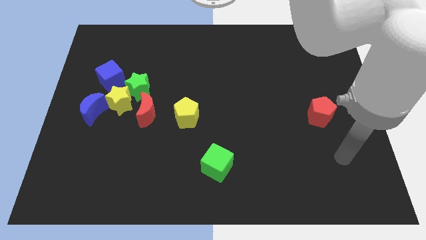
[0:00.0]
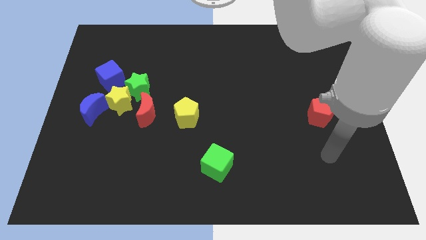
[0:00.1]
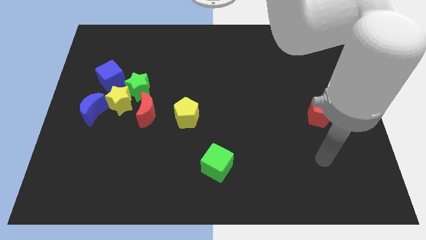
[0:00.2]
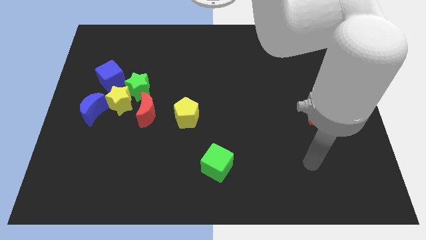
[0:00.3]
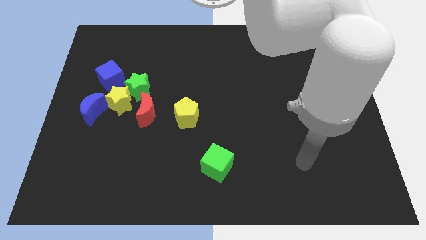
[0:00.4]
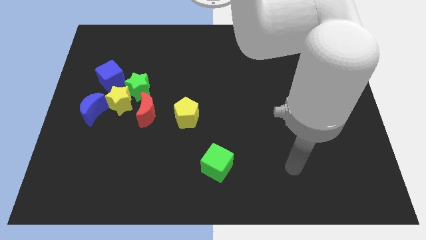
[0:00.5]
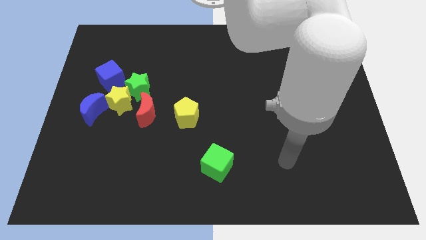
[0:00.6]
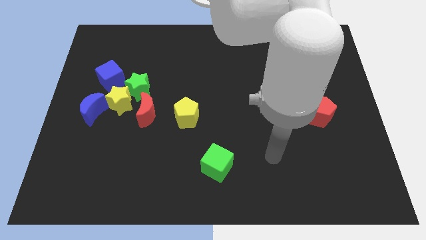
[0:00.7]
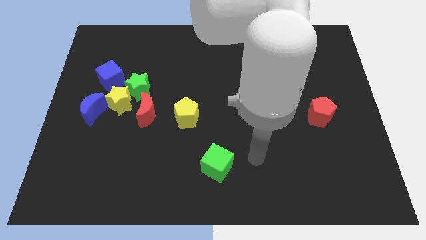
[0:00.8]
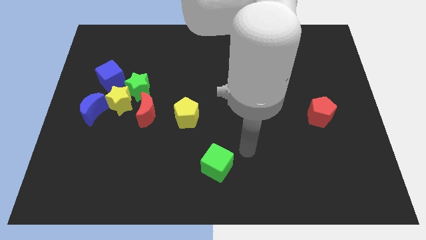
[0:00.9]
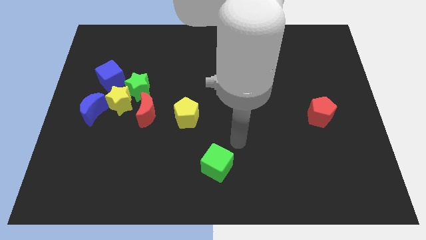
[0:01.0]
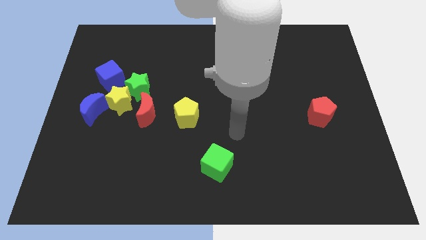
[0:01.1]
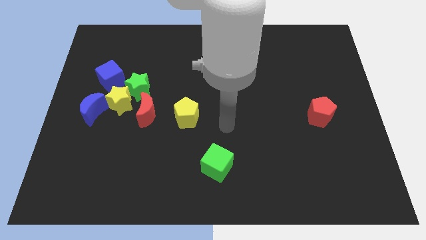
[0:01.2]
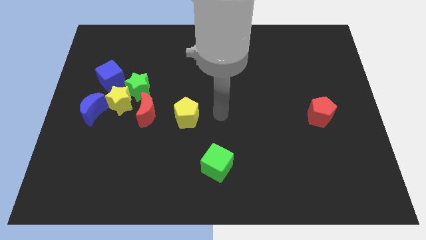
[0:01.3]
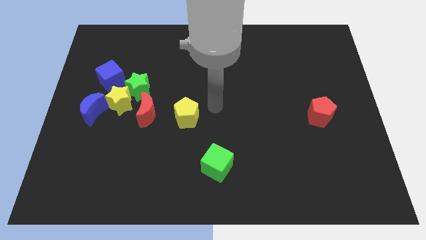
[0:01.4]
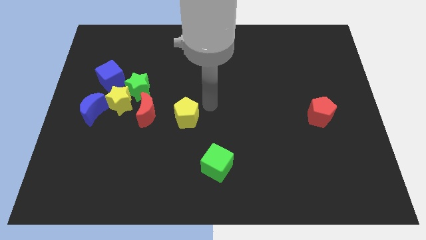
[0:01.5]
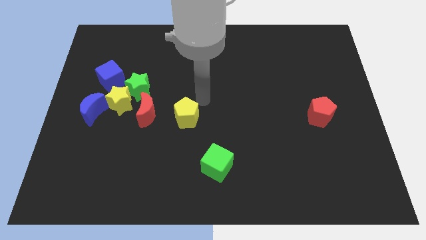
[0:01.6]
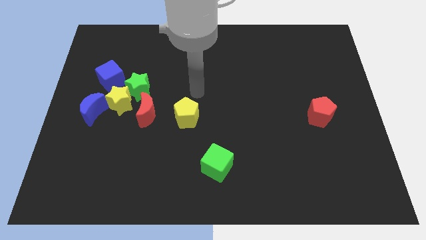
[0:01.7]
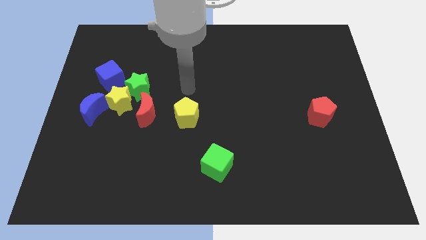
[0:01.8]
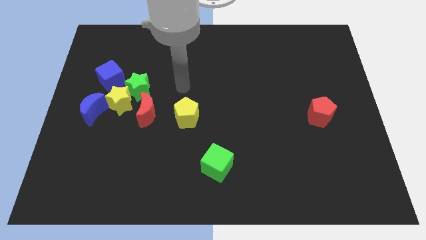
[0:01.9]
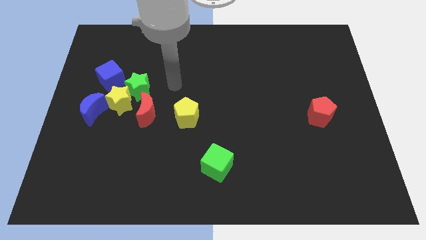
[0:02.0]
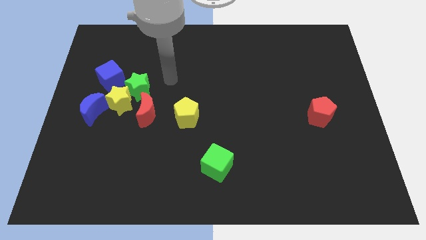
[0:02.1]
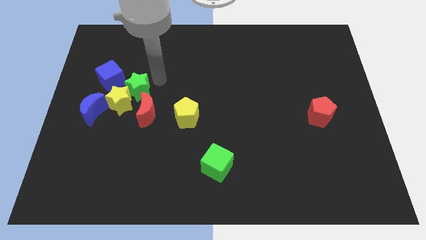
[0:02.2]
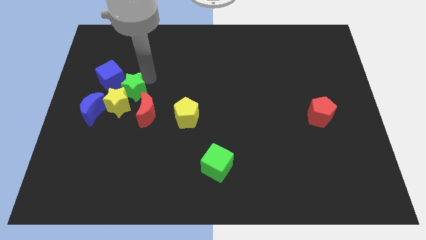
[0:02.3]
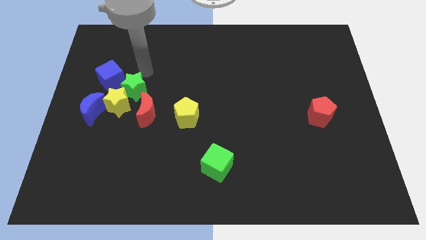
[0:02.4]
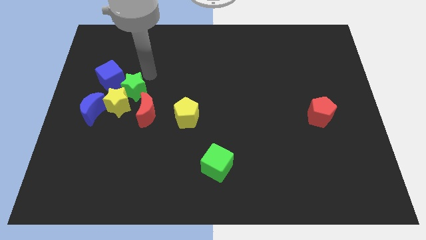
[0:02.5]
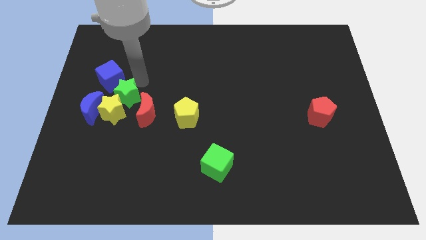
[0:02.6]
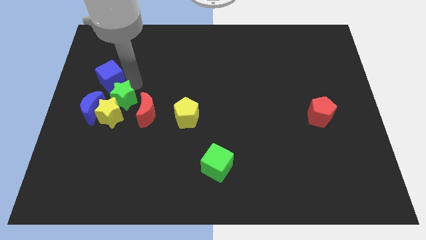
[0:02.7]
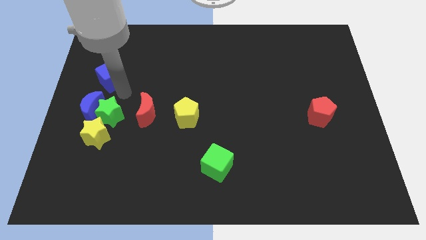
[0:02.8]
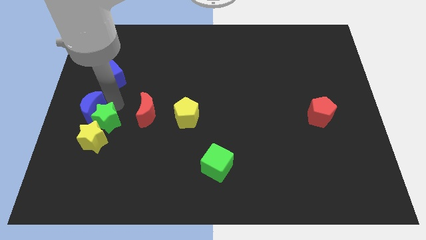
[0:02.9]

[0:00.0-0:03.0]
pull the yellow star apart from the group of blocks

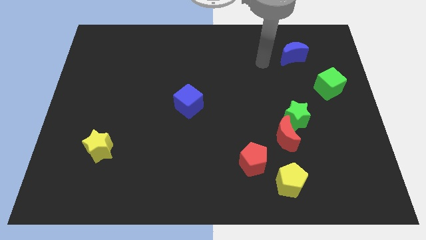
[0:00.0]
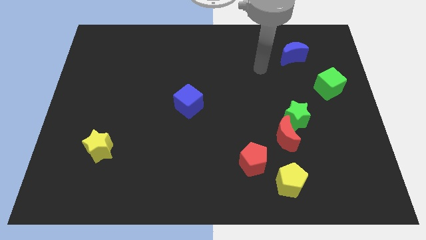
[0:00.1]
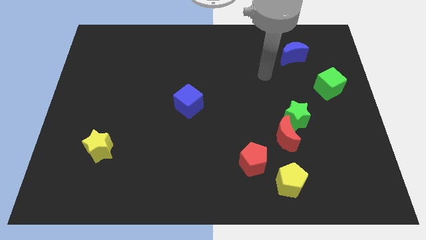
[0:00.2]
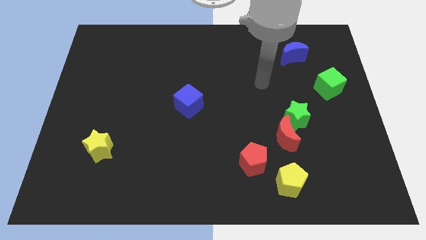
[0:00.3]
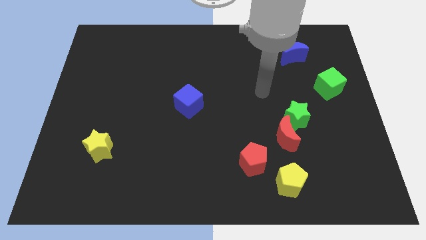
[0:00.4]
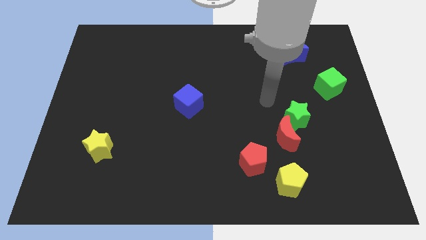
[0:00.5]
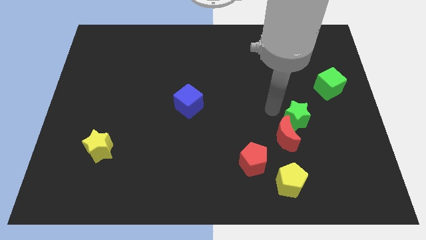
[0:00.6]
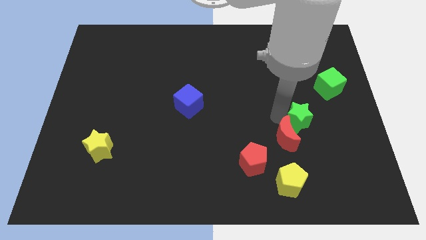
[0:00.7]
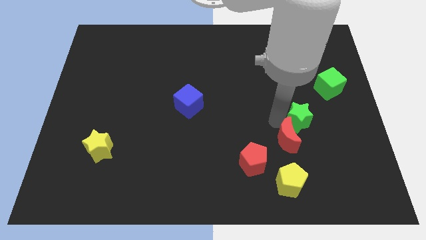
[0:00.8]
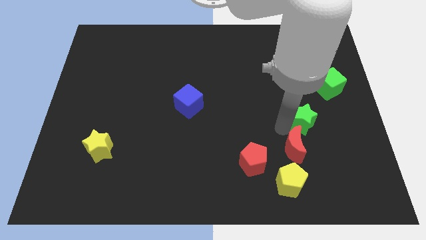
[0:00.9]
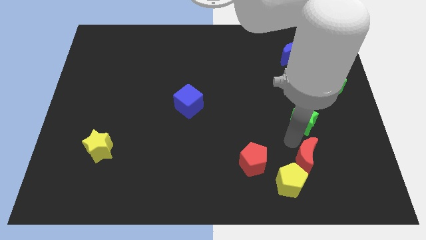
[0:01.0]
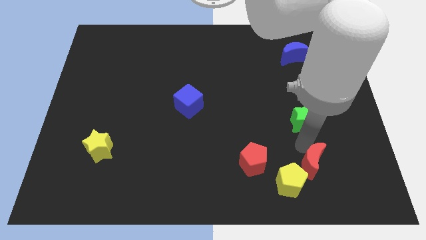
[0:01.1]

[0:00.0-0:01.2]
move the green star away from the red moon

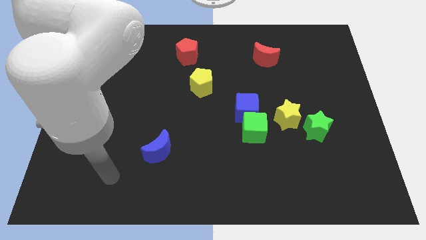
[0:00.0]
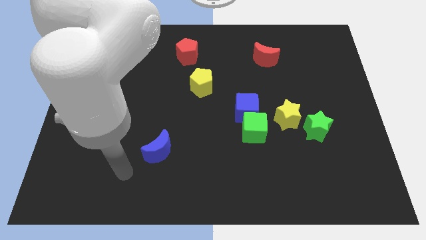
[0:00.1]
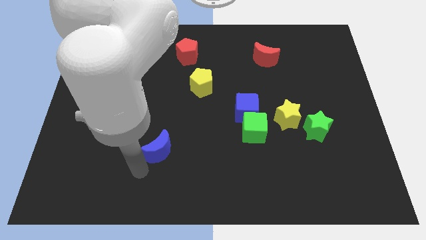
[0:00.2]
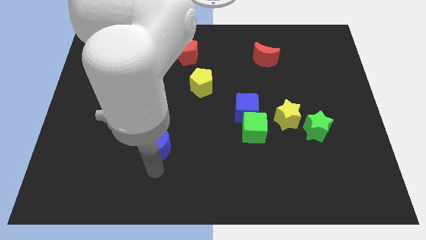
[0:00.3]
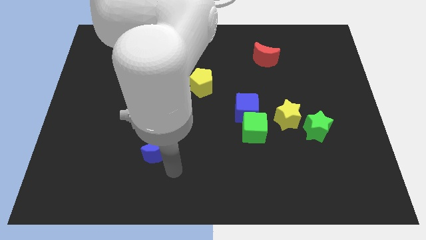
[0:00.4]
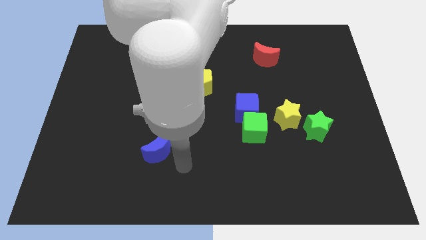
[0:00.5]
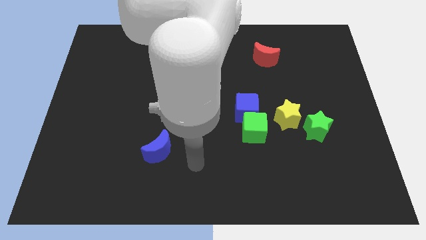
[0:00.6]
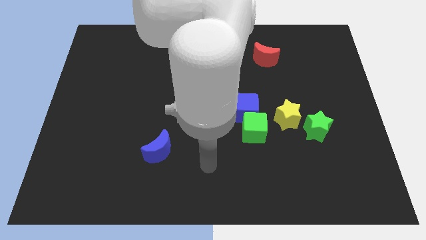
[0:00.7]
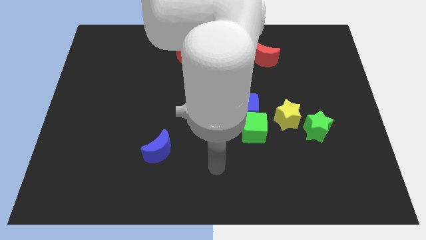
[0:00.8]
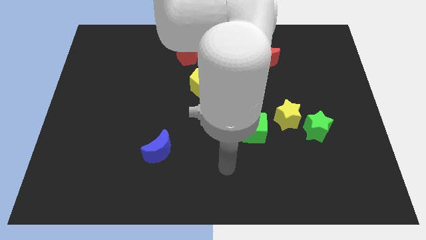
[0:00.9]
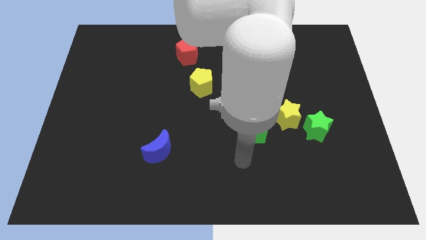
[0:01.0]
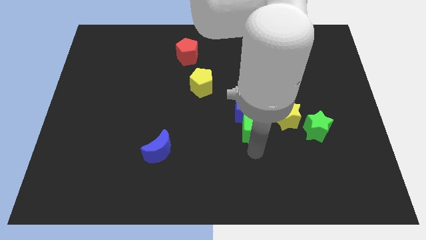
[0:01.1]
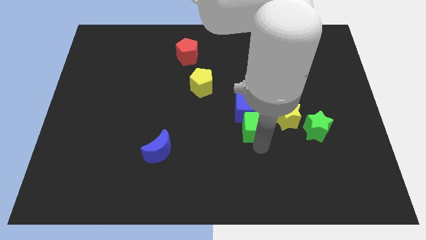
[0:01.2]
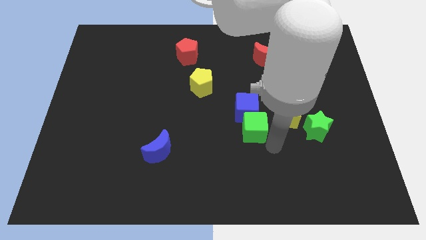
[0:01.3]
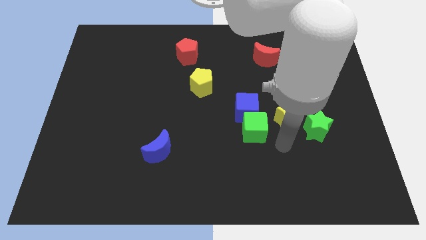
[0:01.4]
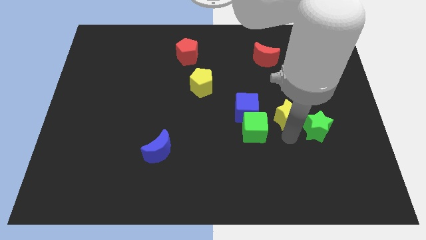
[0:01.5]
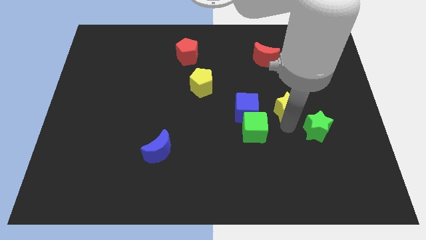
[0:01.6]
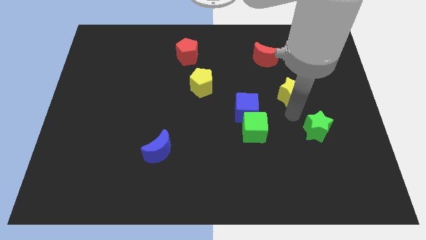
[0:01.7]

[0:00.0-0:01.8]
move the green star away from the yellow star

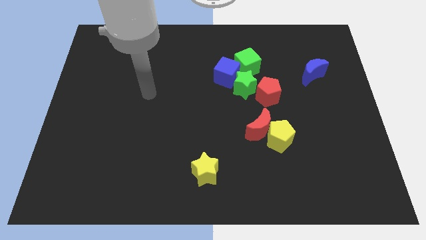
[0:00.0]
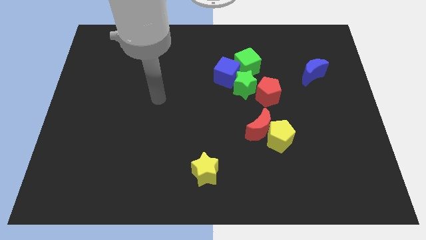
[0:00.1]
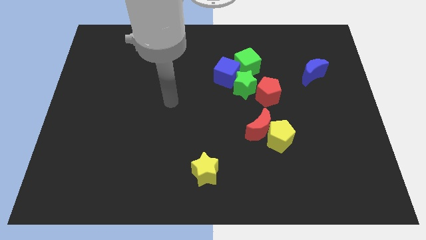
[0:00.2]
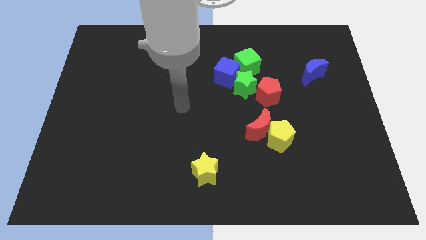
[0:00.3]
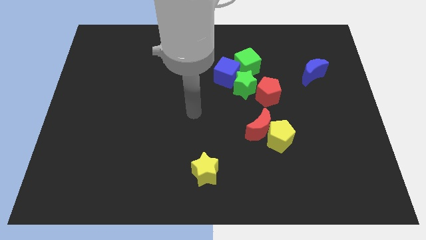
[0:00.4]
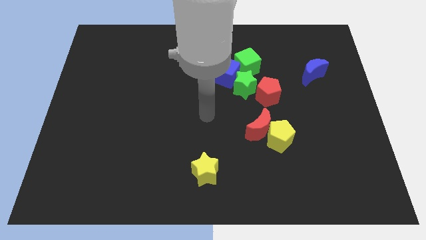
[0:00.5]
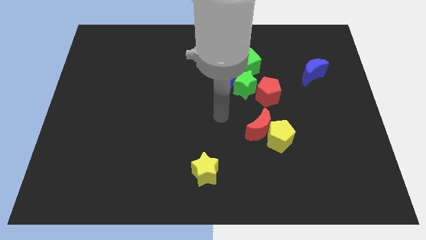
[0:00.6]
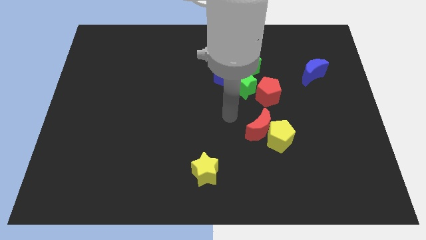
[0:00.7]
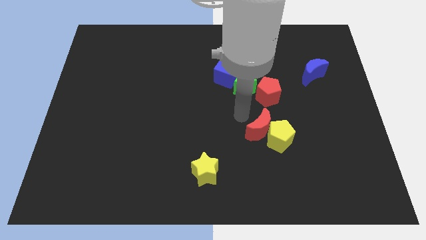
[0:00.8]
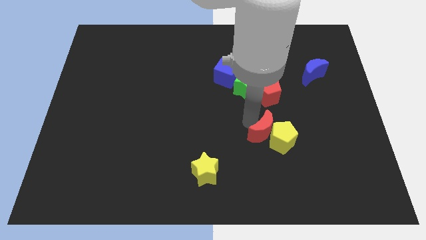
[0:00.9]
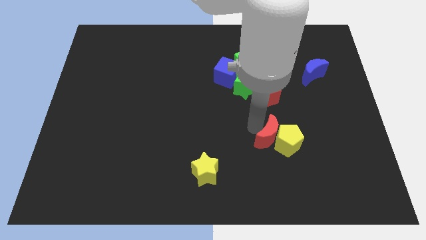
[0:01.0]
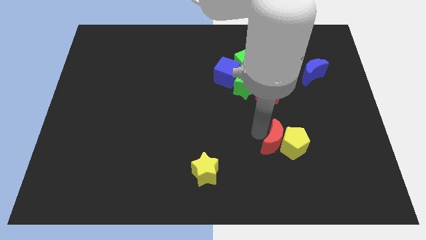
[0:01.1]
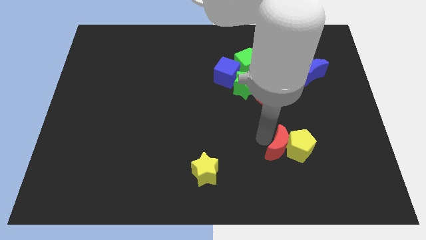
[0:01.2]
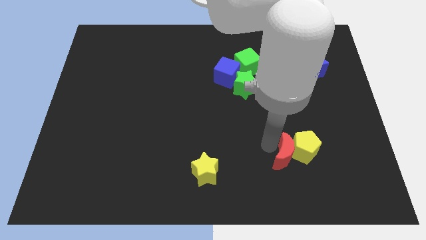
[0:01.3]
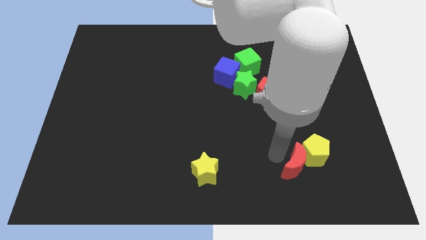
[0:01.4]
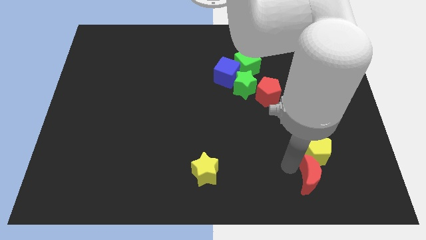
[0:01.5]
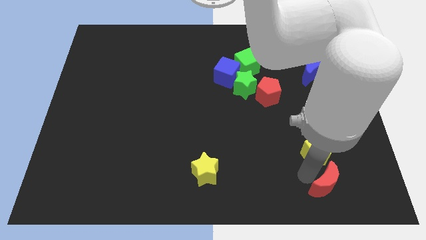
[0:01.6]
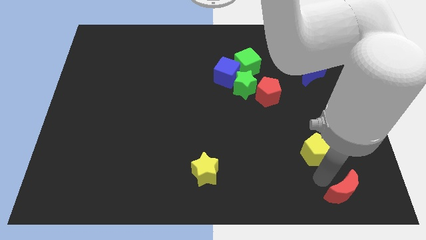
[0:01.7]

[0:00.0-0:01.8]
separate the yellow pentagon from the red moon

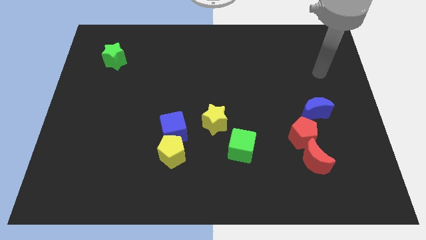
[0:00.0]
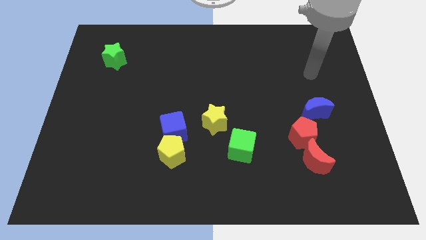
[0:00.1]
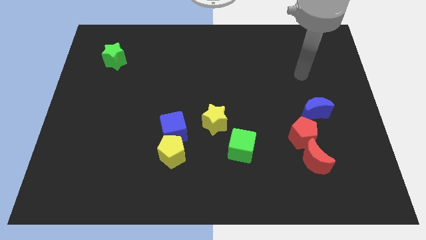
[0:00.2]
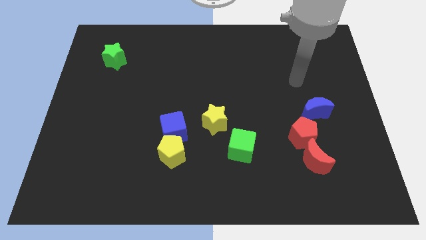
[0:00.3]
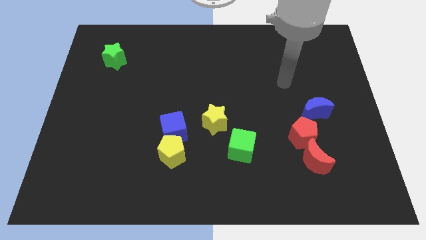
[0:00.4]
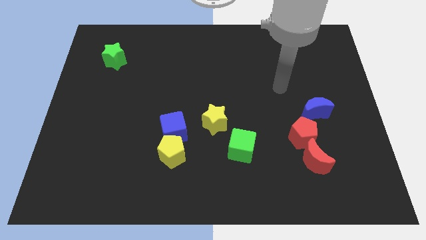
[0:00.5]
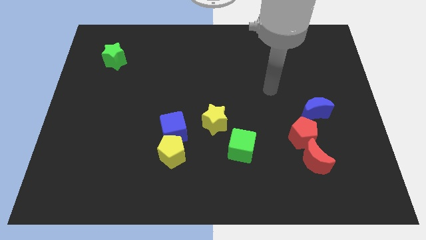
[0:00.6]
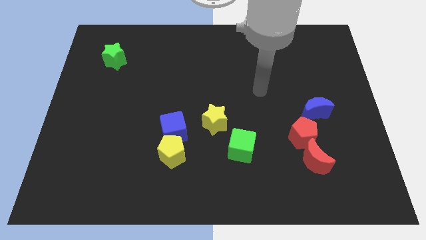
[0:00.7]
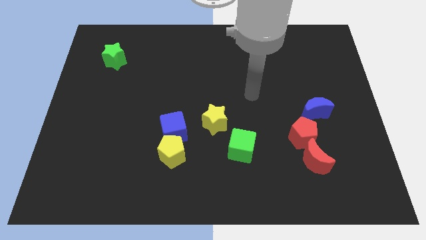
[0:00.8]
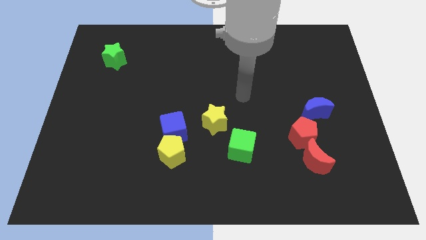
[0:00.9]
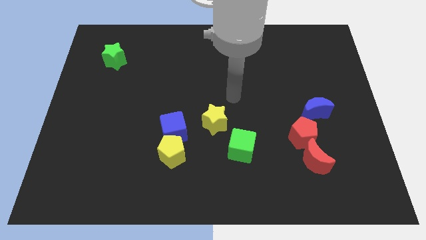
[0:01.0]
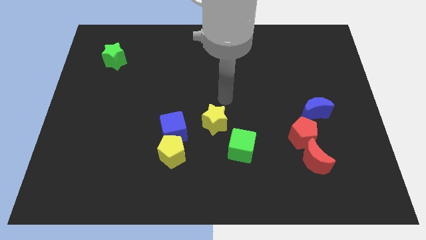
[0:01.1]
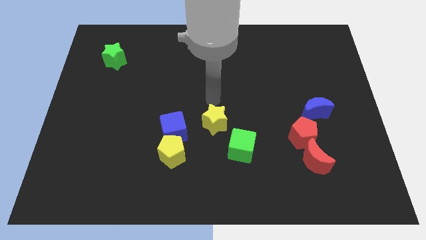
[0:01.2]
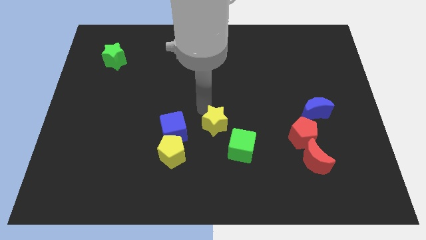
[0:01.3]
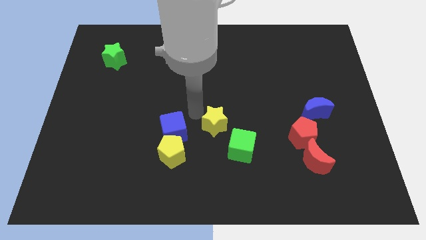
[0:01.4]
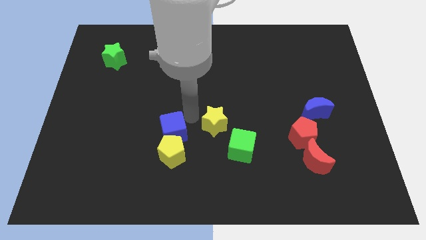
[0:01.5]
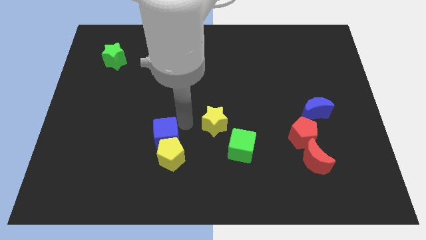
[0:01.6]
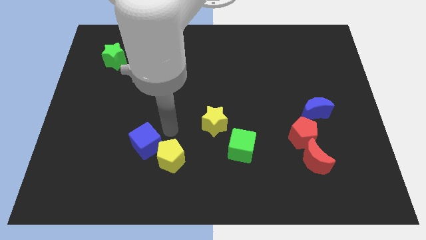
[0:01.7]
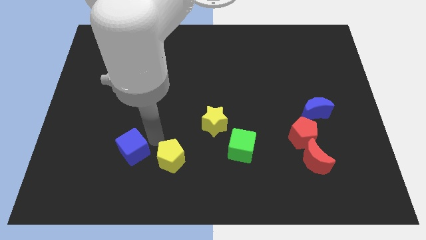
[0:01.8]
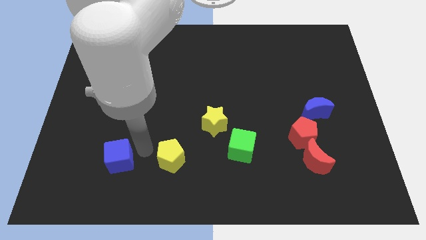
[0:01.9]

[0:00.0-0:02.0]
move the yellow pentagon away from the blue cube
